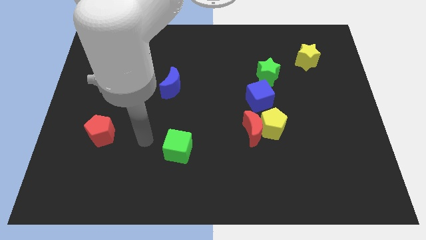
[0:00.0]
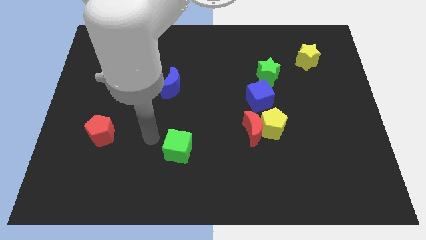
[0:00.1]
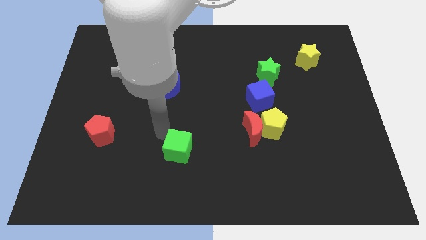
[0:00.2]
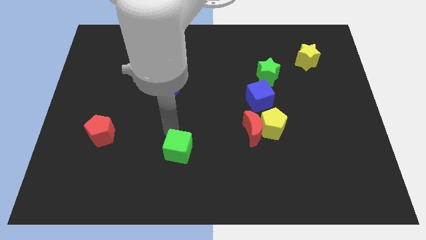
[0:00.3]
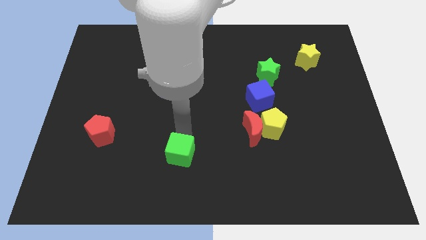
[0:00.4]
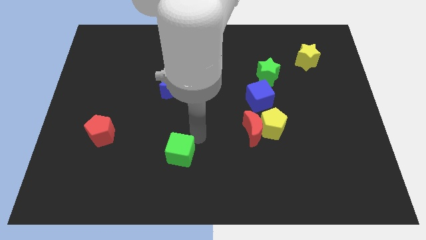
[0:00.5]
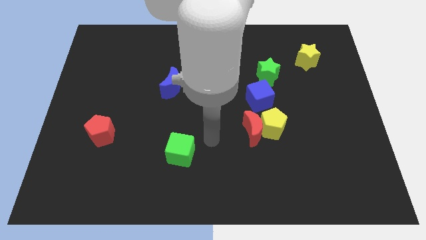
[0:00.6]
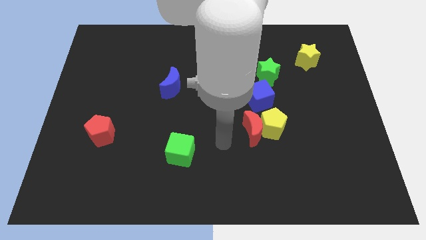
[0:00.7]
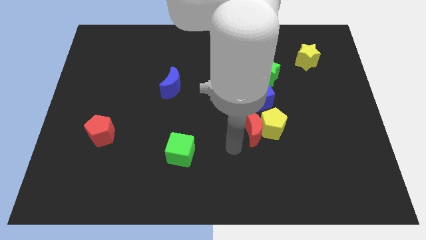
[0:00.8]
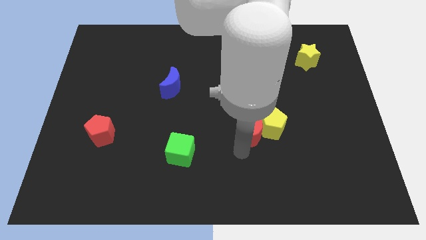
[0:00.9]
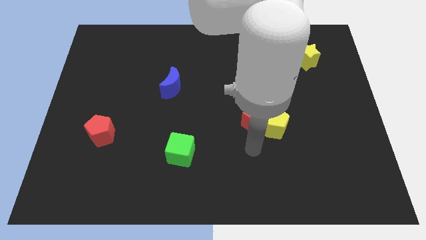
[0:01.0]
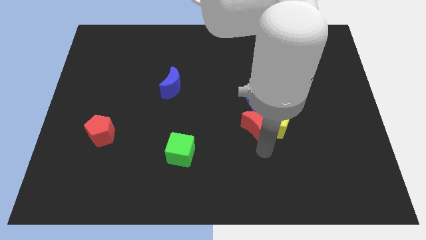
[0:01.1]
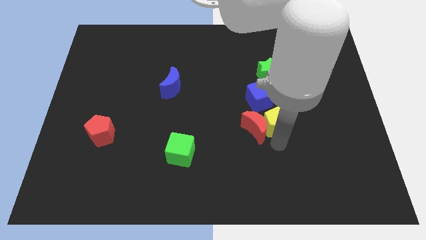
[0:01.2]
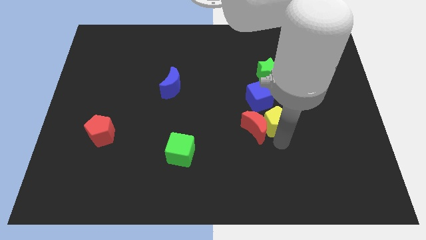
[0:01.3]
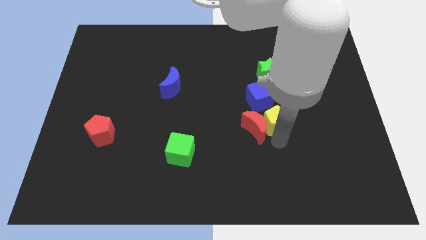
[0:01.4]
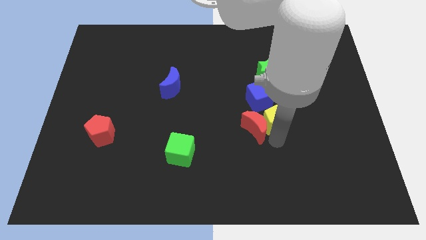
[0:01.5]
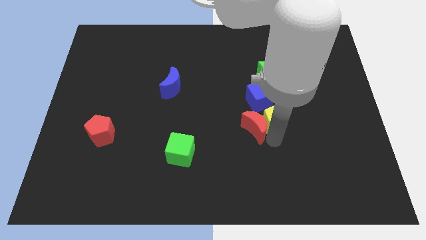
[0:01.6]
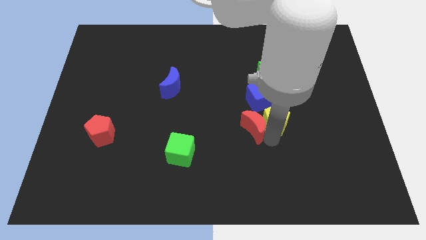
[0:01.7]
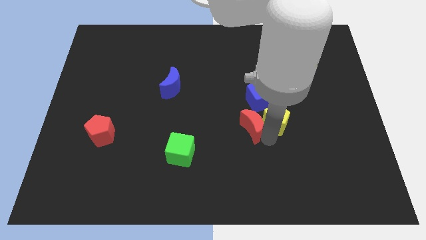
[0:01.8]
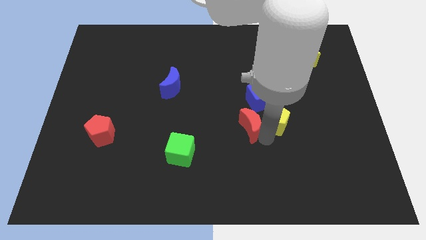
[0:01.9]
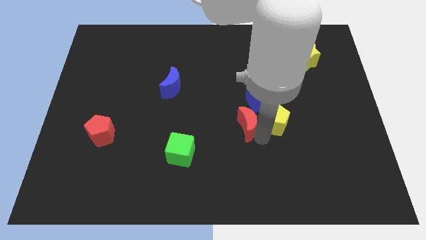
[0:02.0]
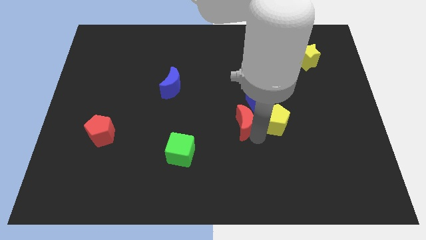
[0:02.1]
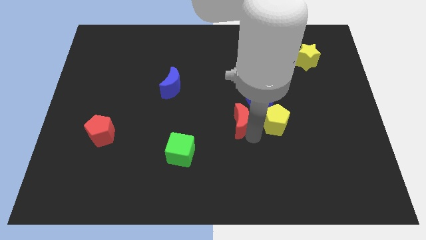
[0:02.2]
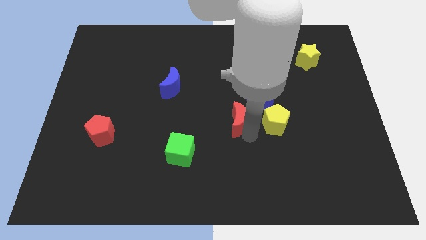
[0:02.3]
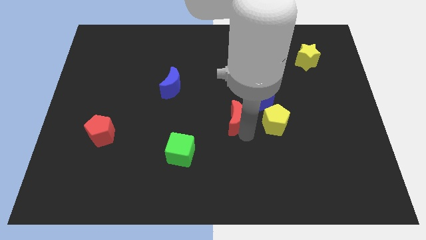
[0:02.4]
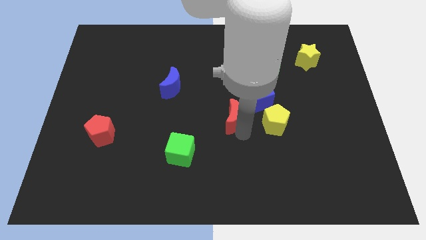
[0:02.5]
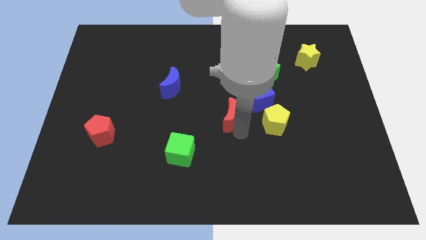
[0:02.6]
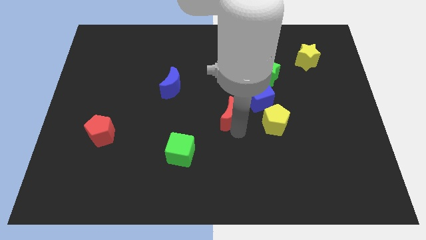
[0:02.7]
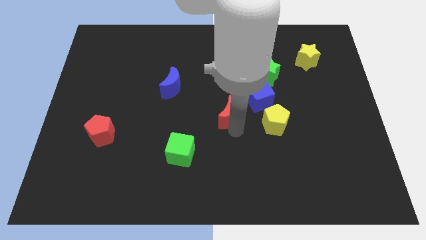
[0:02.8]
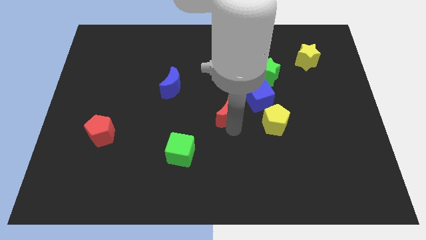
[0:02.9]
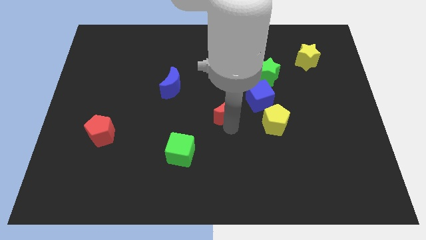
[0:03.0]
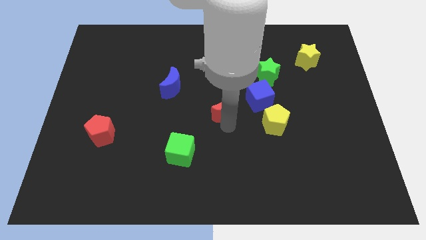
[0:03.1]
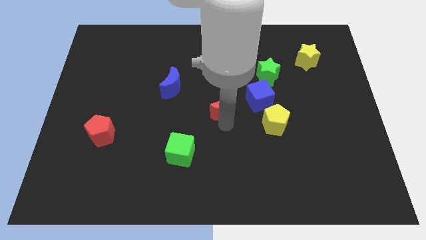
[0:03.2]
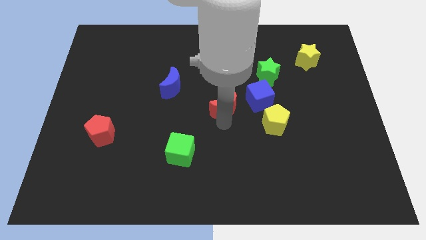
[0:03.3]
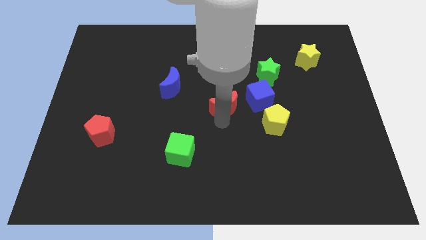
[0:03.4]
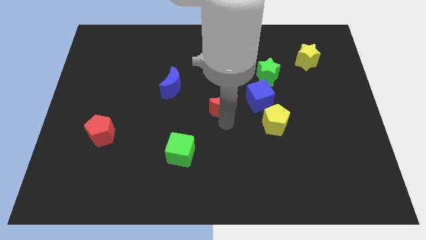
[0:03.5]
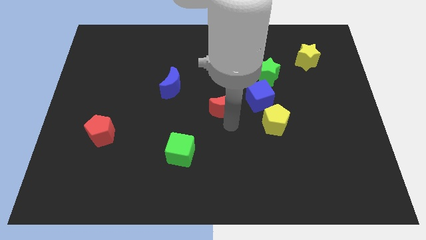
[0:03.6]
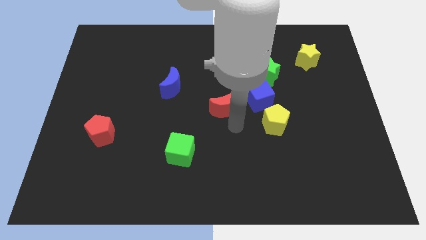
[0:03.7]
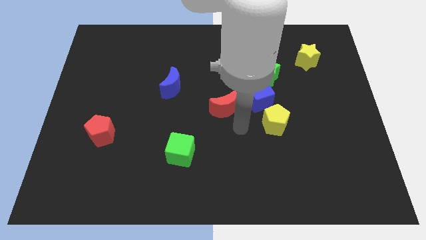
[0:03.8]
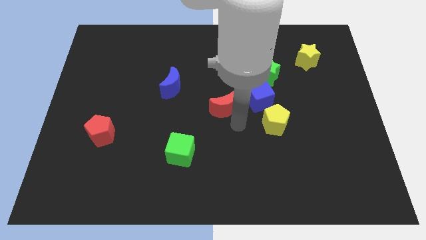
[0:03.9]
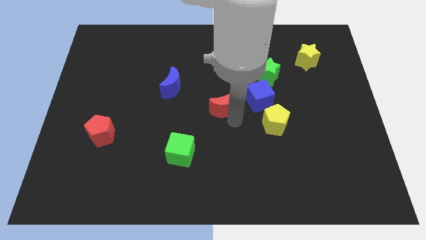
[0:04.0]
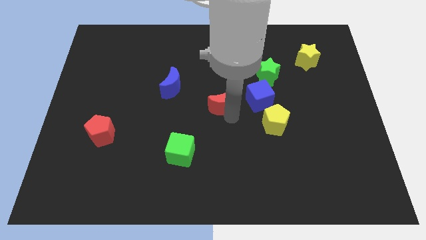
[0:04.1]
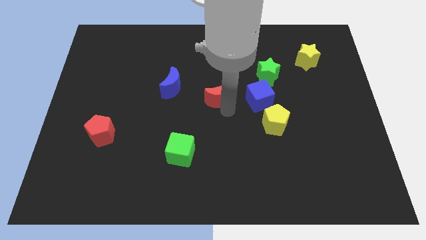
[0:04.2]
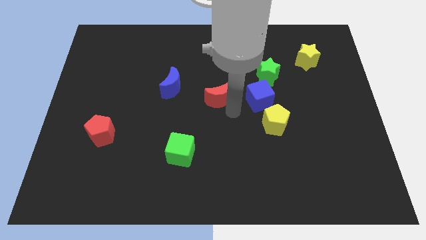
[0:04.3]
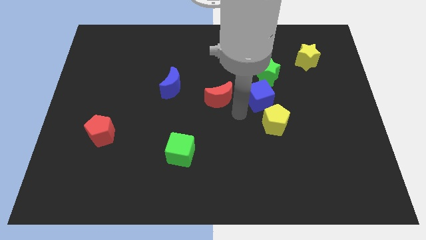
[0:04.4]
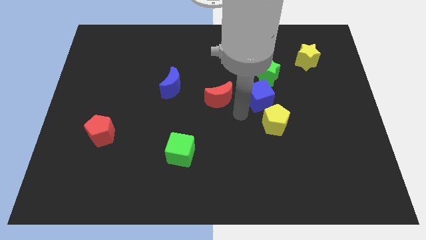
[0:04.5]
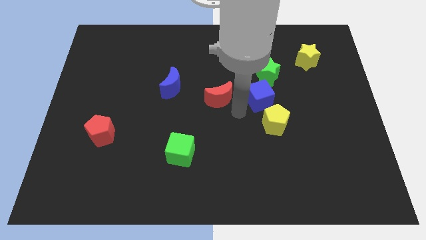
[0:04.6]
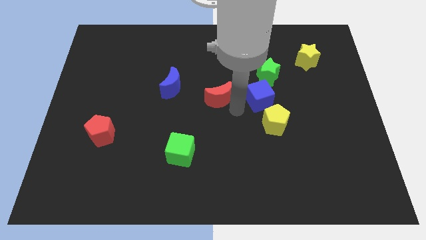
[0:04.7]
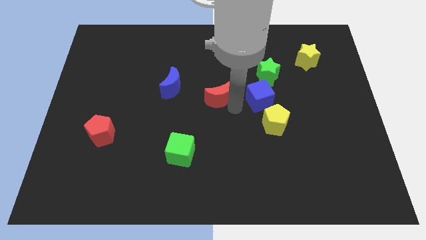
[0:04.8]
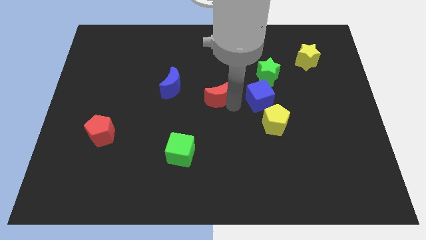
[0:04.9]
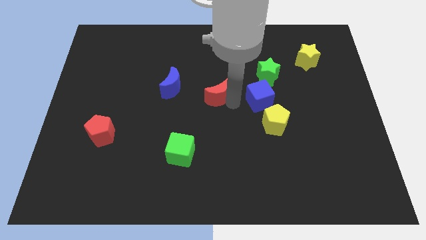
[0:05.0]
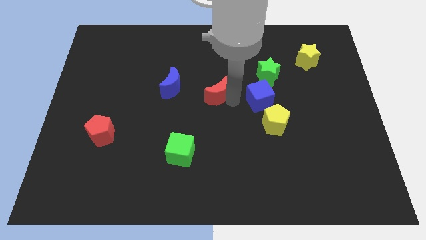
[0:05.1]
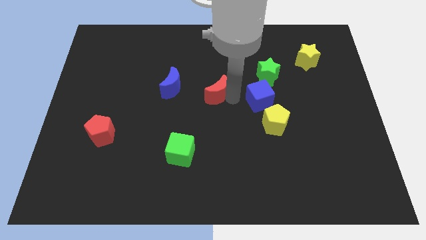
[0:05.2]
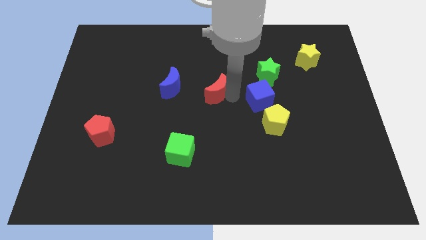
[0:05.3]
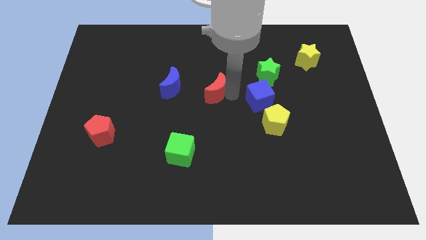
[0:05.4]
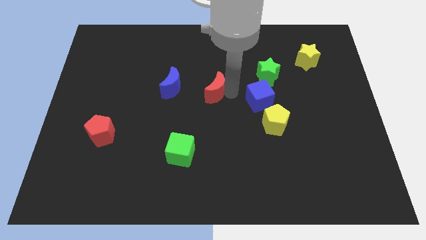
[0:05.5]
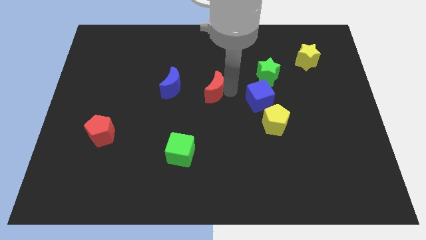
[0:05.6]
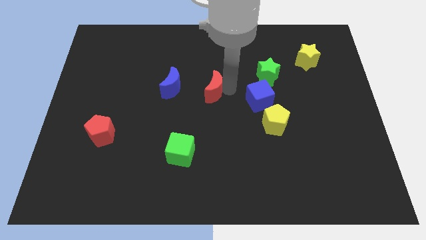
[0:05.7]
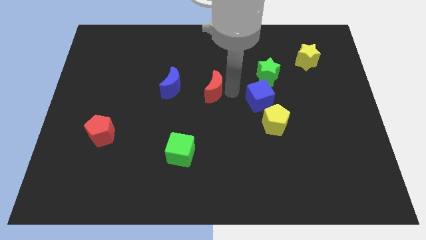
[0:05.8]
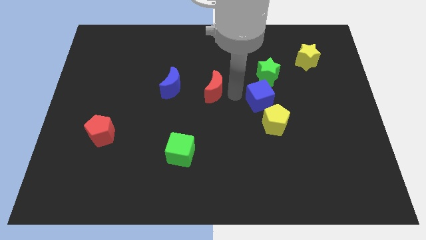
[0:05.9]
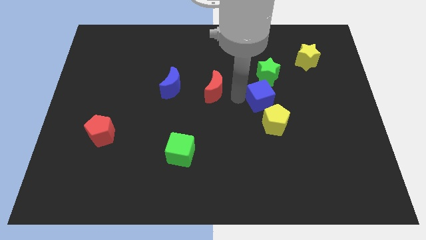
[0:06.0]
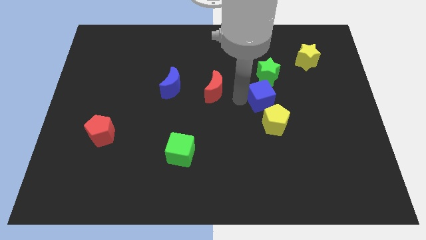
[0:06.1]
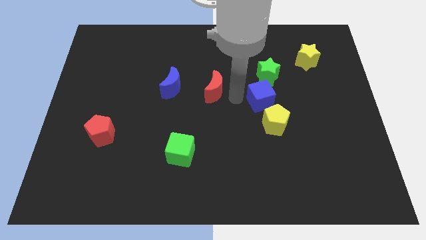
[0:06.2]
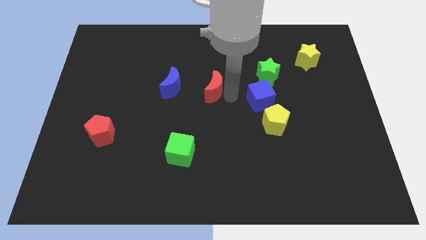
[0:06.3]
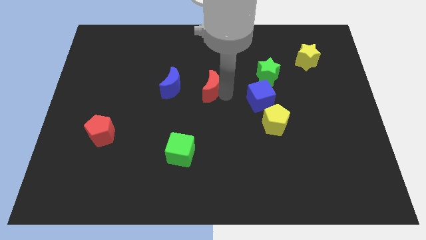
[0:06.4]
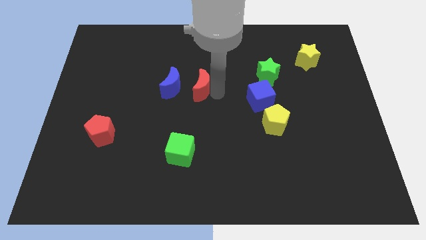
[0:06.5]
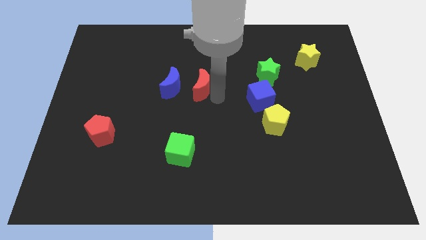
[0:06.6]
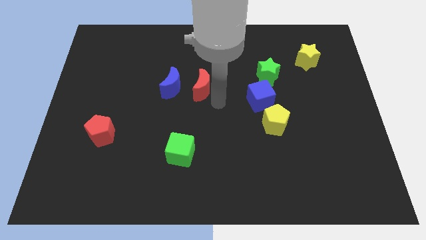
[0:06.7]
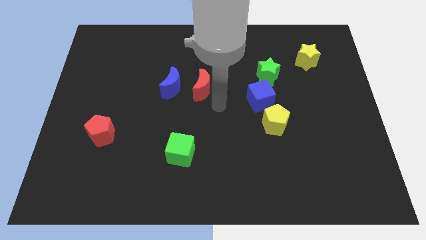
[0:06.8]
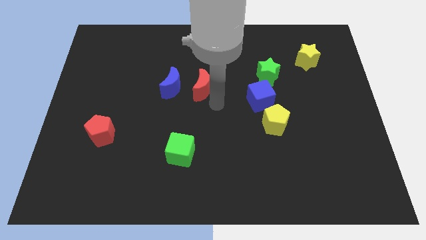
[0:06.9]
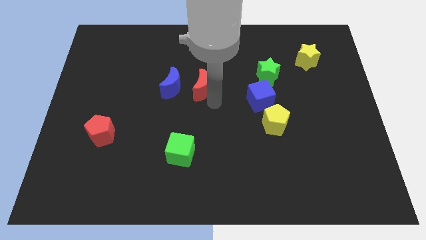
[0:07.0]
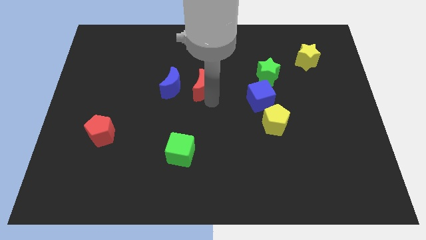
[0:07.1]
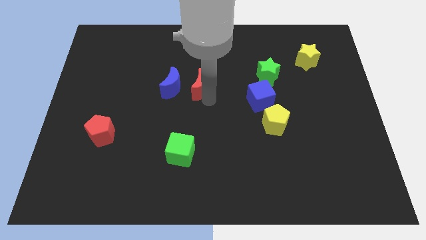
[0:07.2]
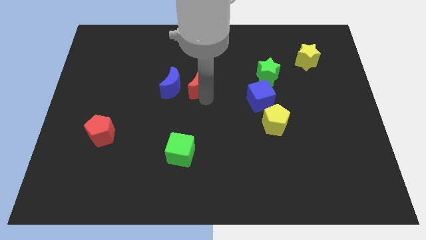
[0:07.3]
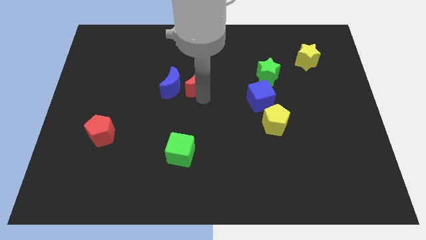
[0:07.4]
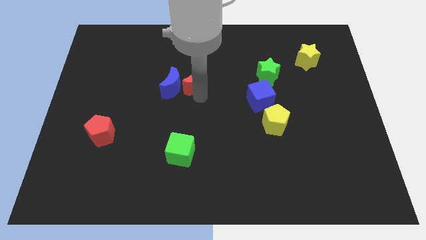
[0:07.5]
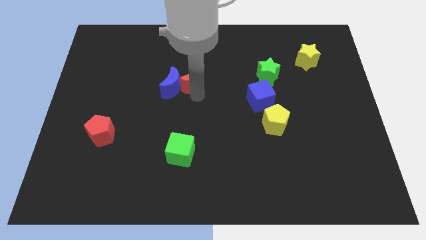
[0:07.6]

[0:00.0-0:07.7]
move the red moon up and left diagonally

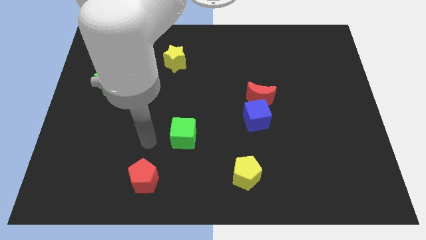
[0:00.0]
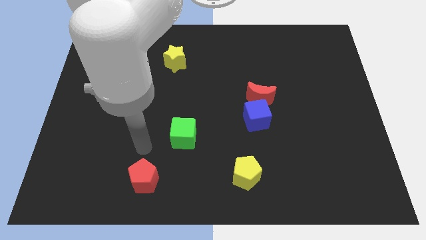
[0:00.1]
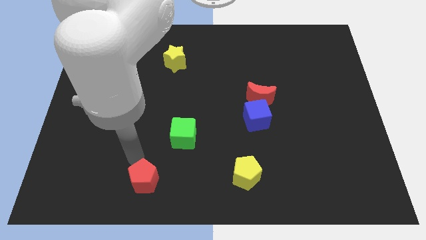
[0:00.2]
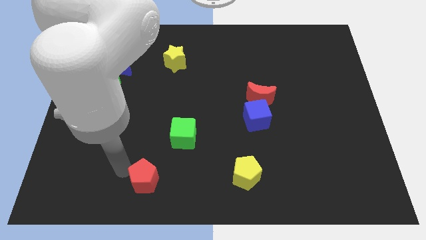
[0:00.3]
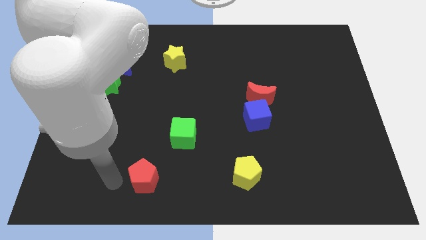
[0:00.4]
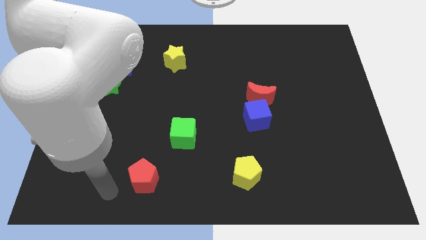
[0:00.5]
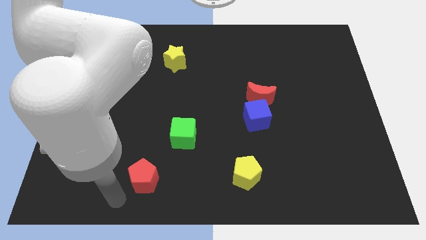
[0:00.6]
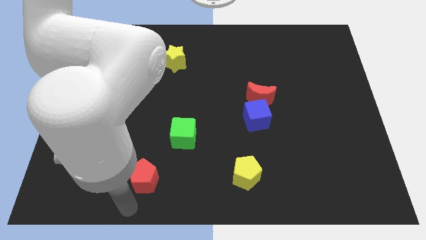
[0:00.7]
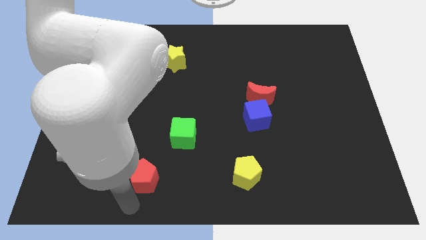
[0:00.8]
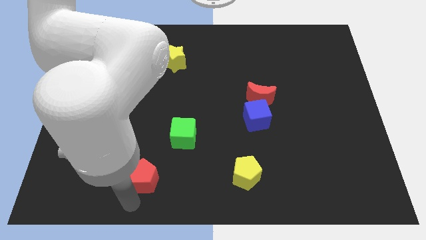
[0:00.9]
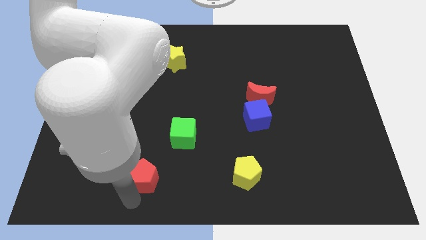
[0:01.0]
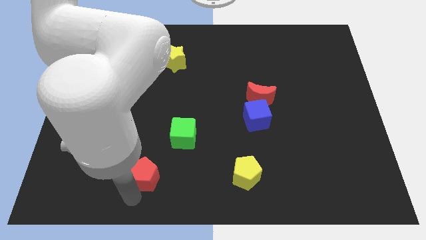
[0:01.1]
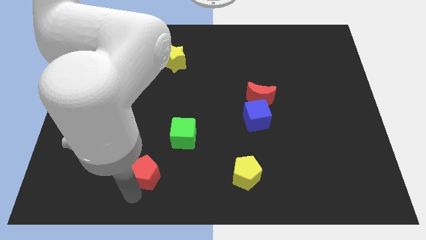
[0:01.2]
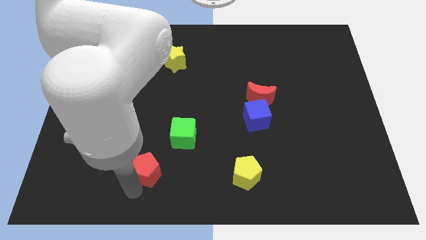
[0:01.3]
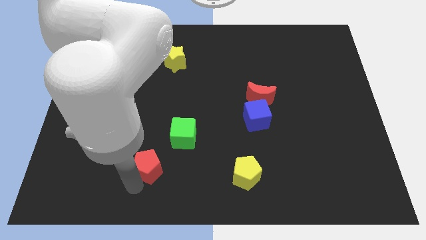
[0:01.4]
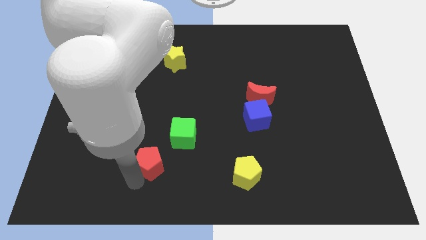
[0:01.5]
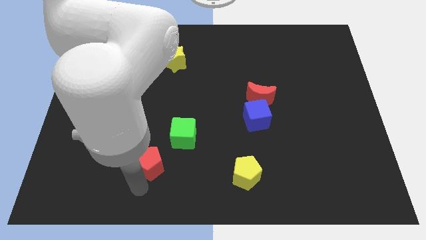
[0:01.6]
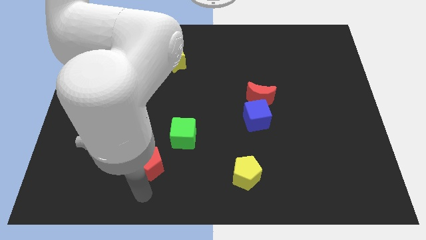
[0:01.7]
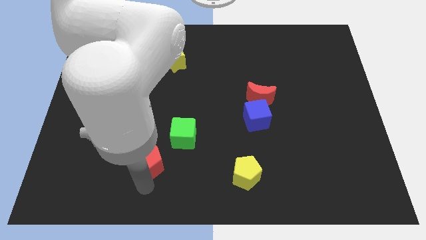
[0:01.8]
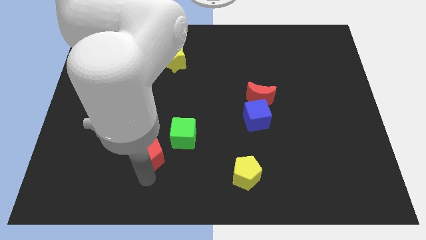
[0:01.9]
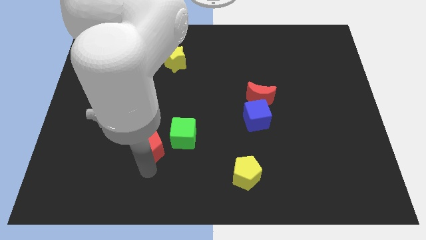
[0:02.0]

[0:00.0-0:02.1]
move the red pentagon slightly upwards
